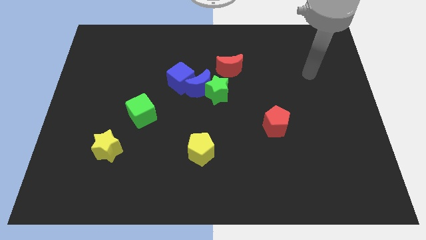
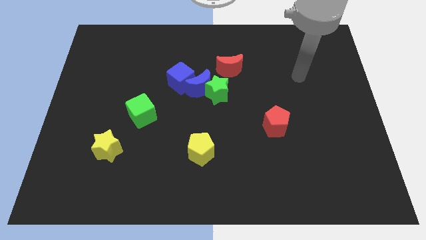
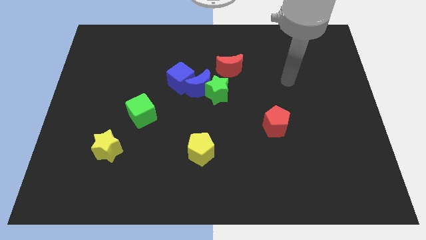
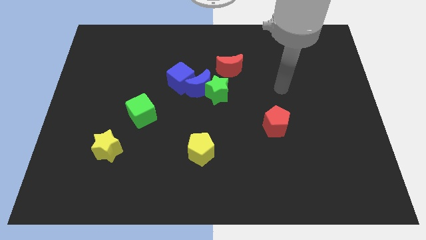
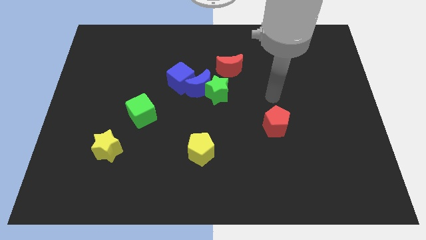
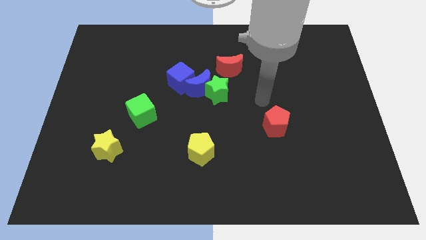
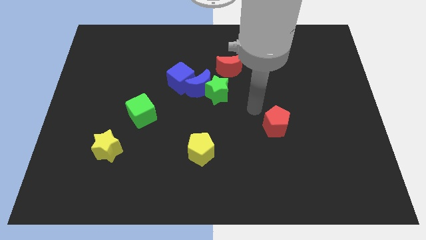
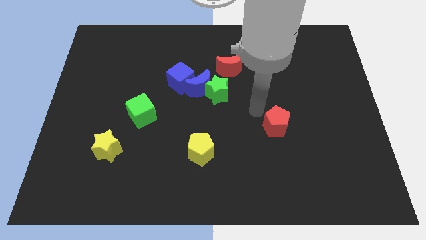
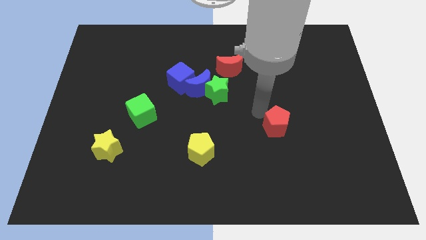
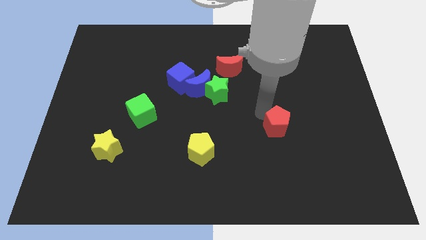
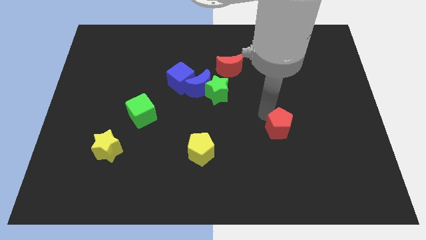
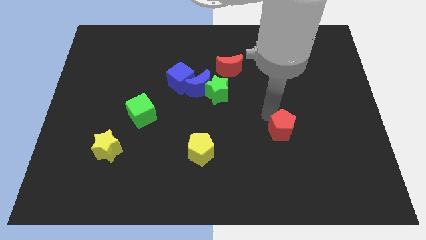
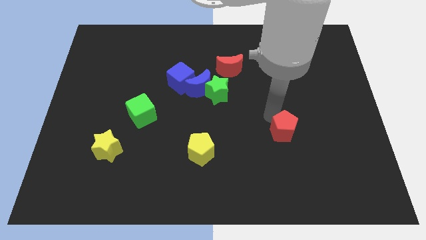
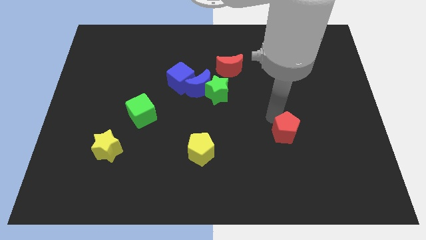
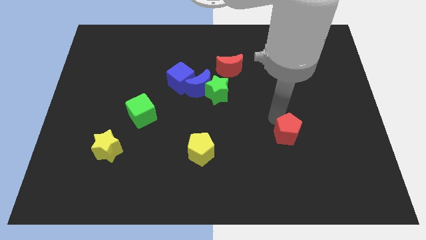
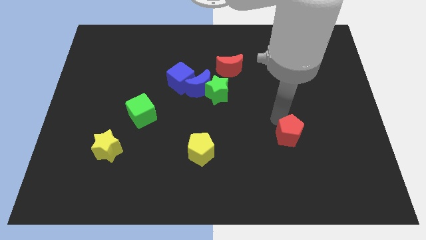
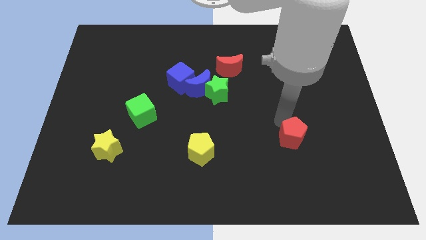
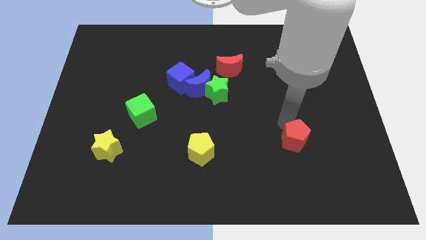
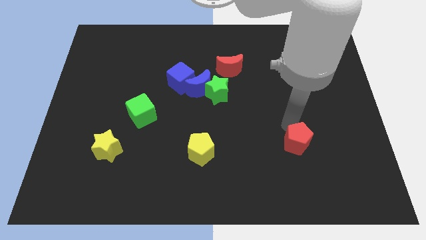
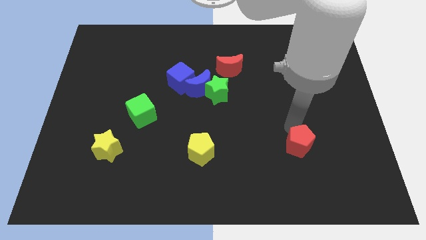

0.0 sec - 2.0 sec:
slightly slide the red pentagon downwards and right

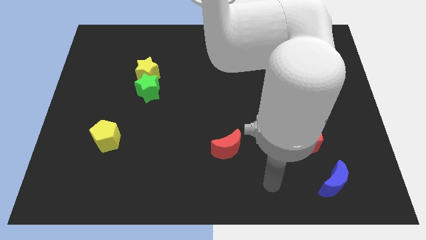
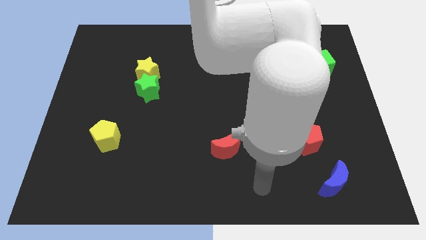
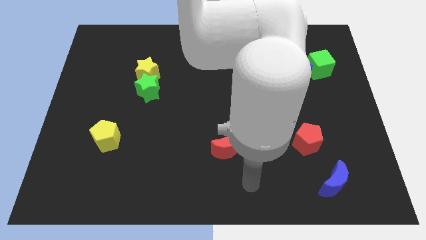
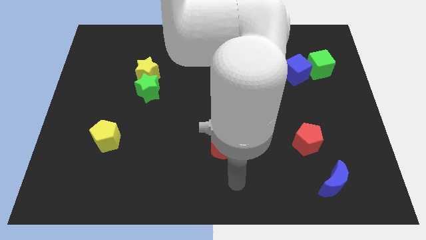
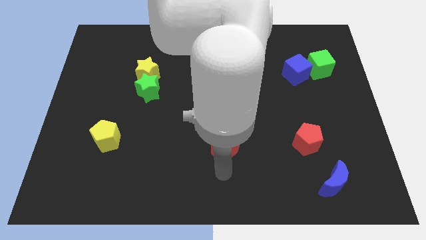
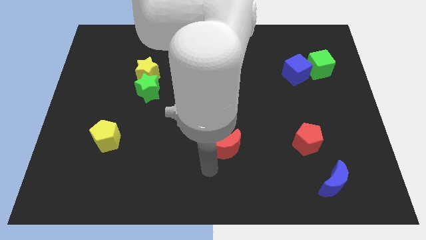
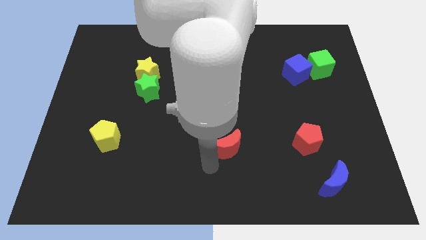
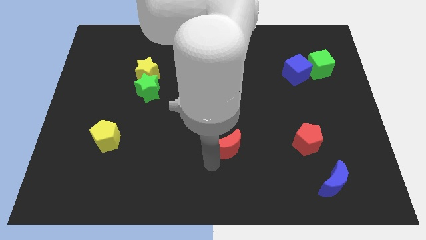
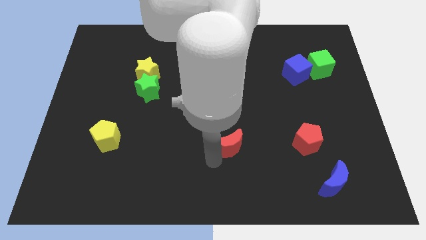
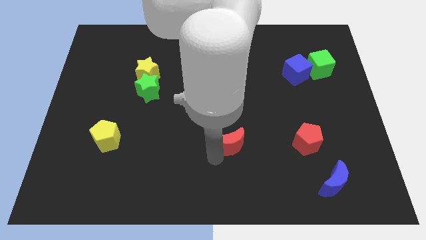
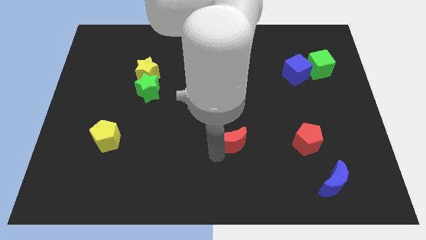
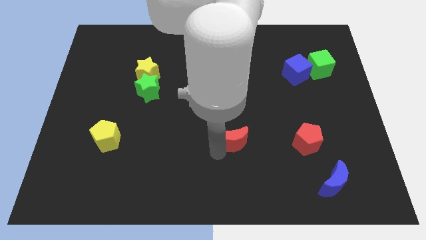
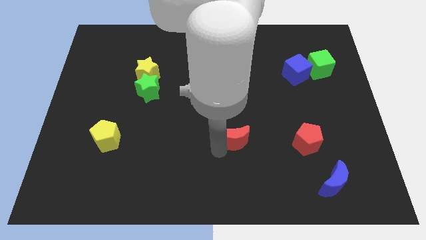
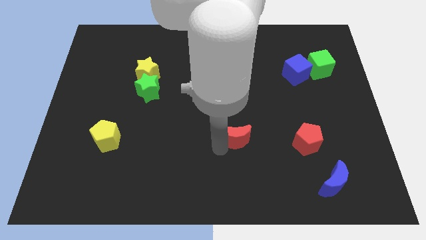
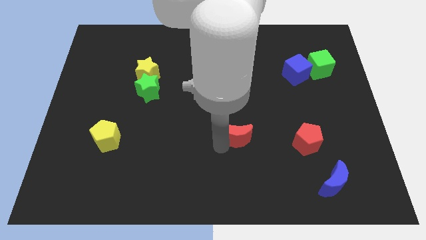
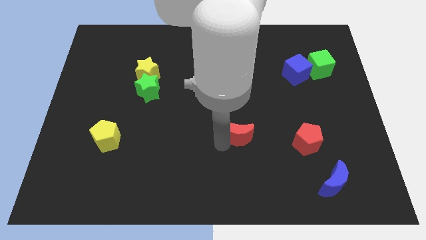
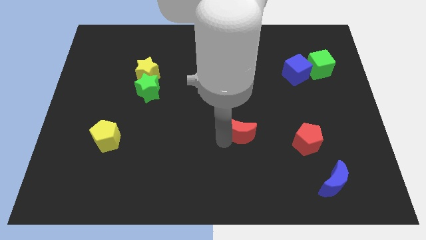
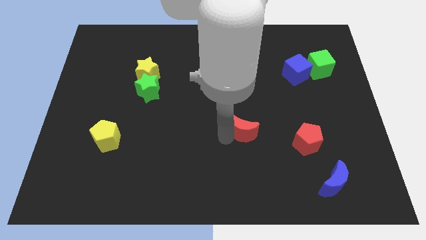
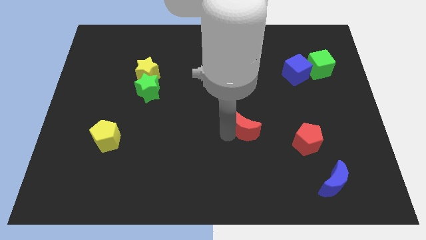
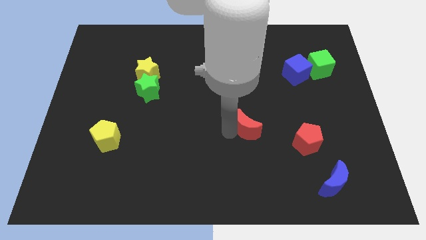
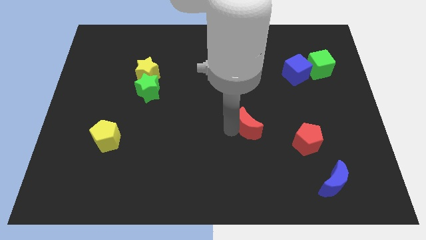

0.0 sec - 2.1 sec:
move the red moon slightly up and right

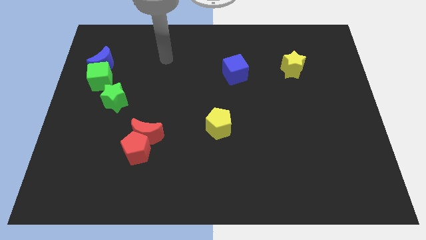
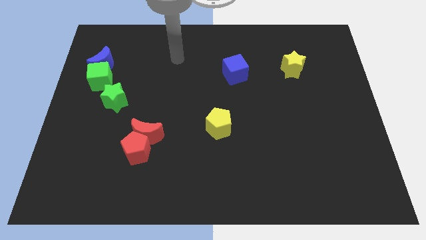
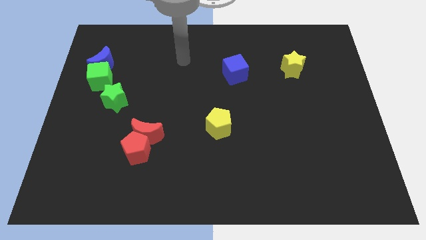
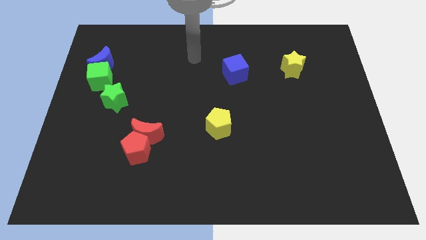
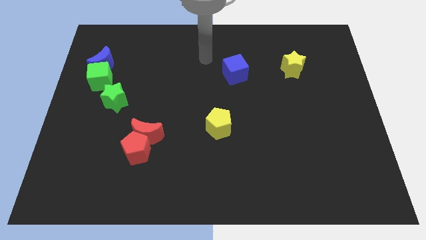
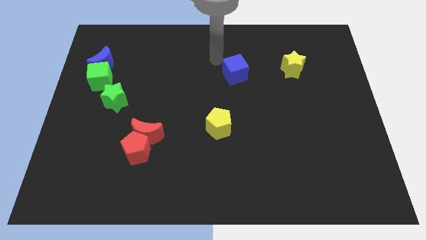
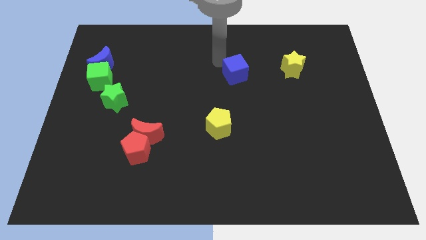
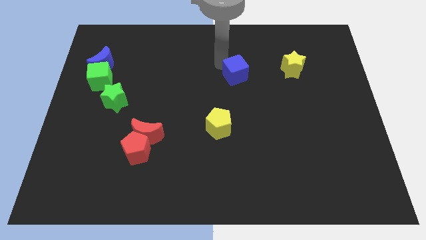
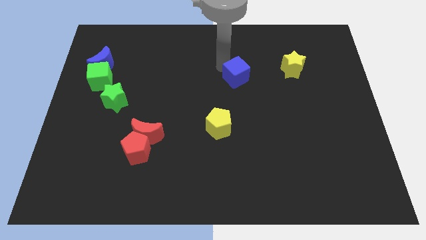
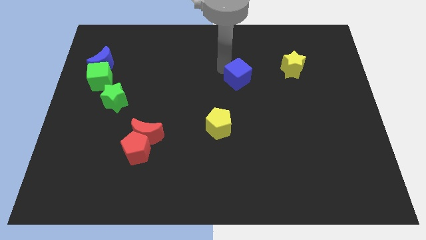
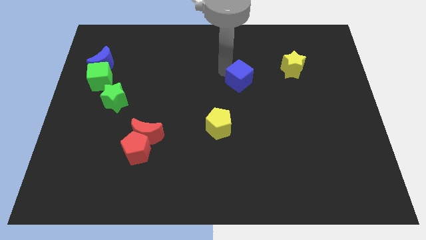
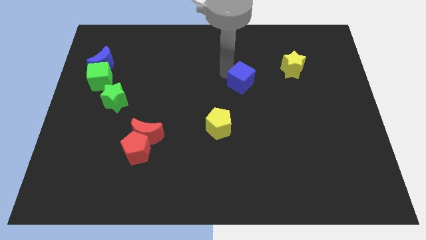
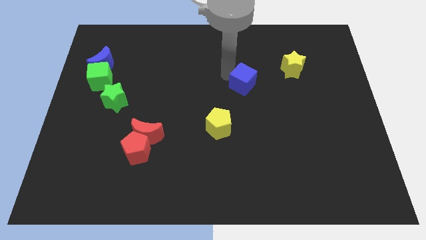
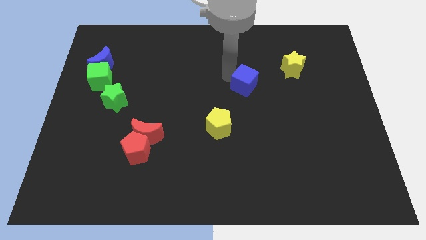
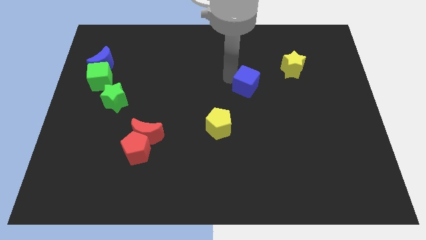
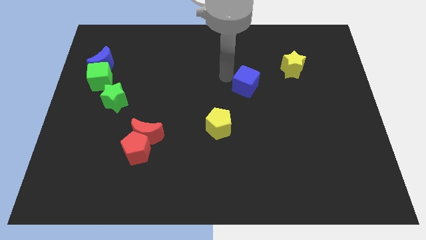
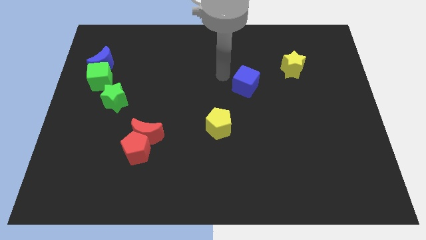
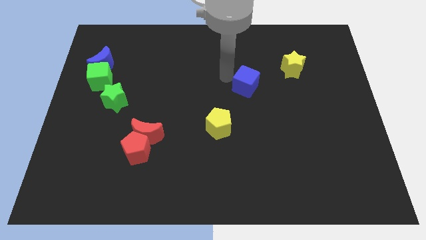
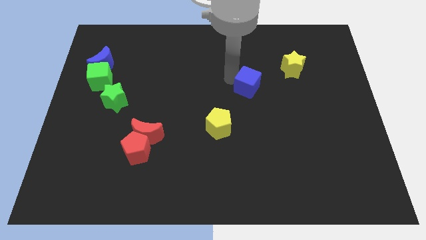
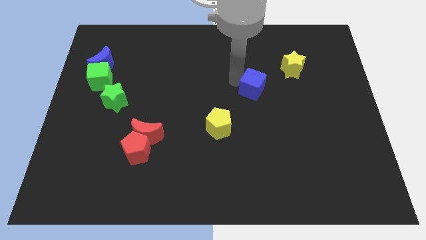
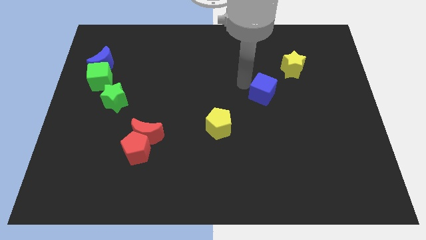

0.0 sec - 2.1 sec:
slightly slide the blue cube down and then right

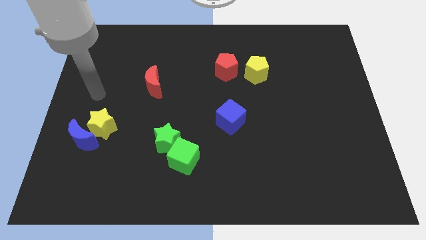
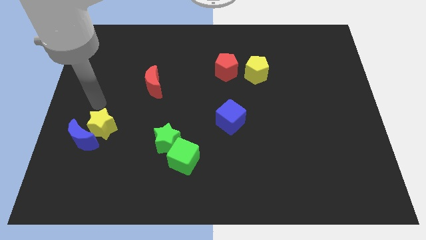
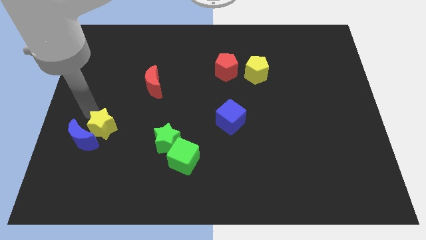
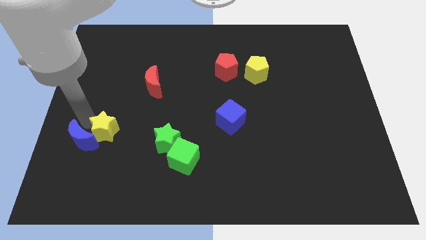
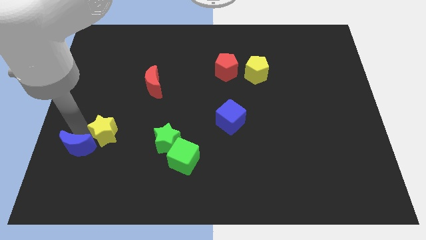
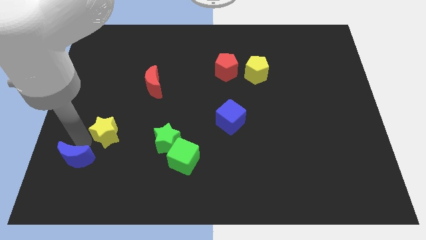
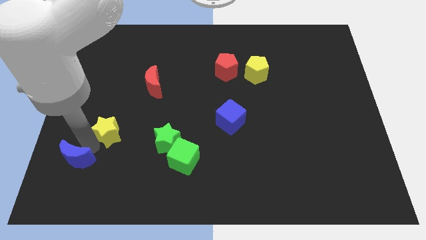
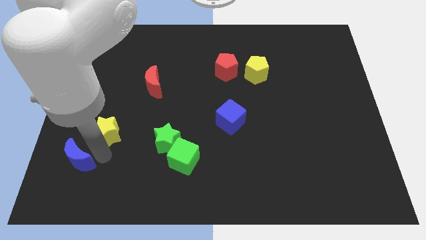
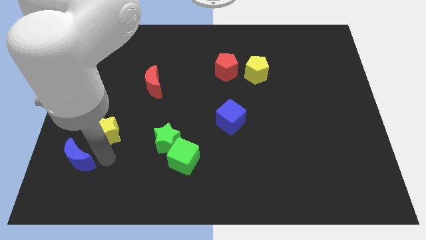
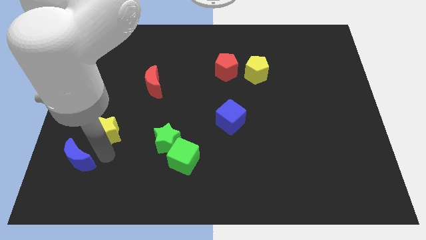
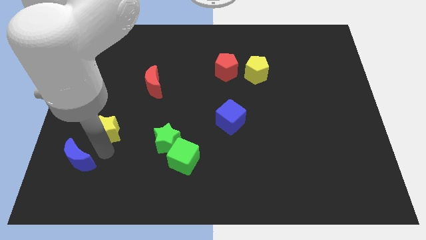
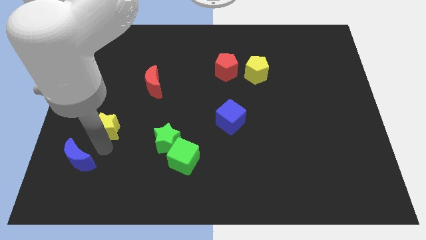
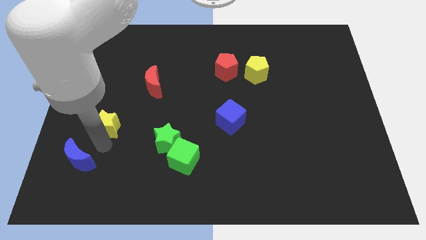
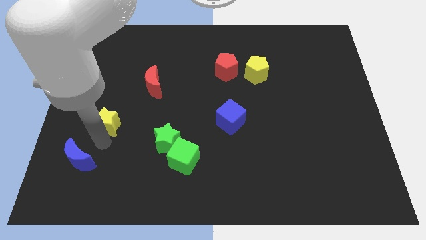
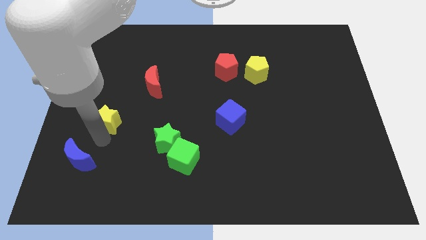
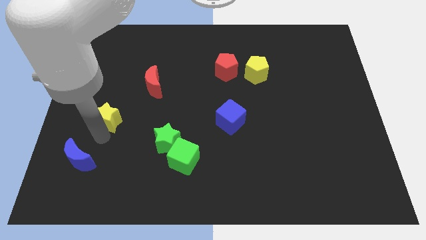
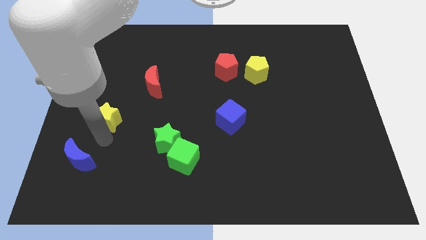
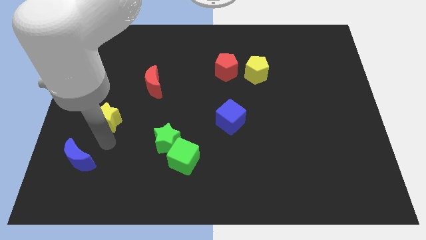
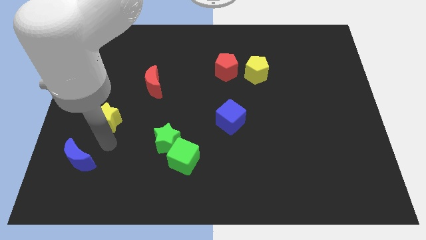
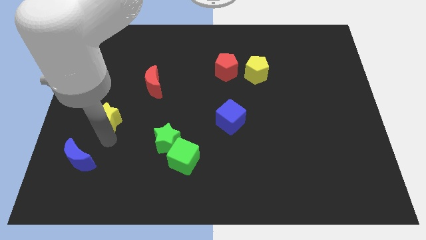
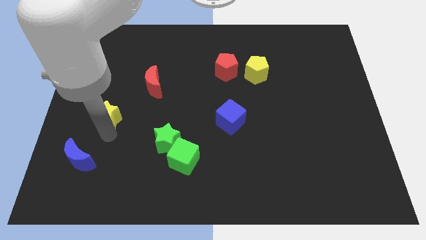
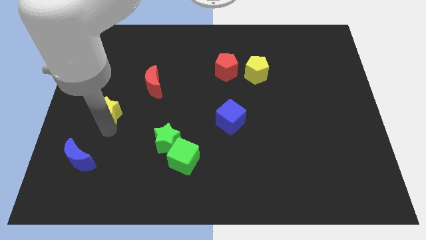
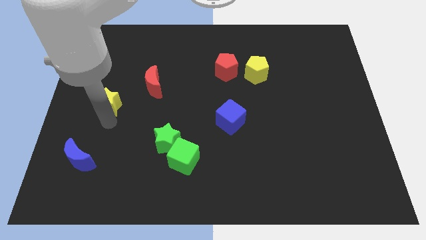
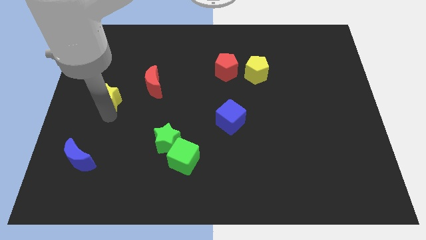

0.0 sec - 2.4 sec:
slightly move the yellow star upwards
